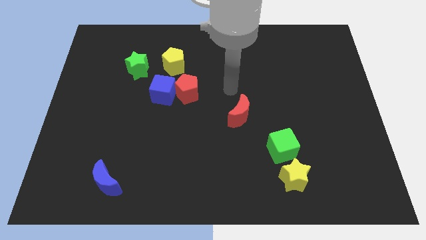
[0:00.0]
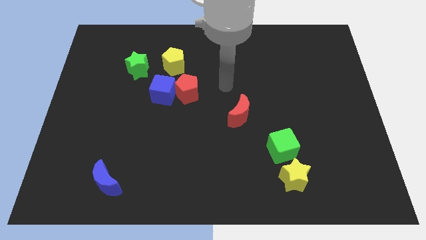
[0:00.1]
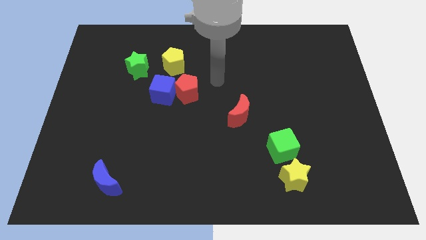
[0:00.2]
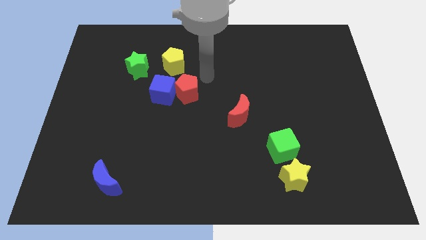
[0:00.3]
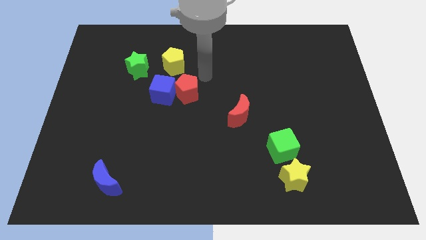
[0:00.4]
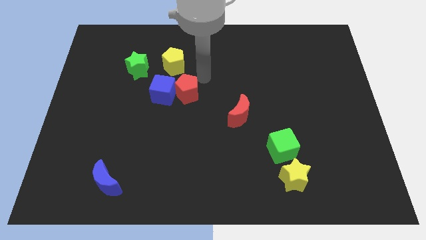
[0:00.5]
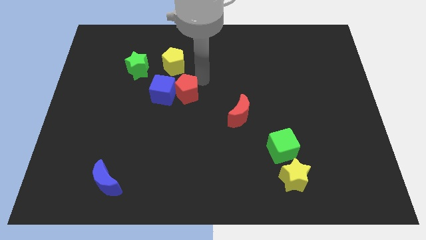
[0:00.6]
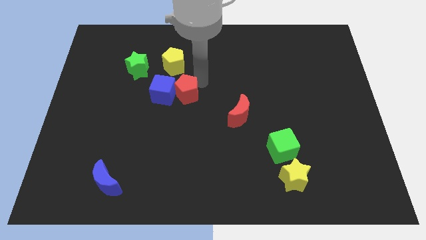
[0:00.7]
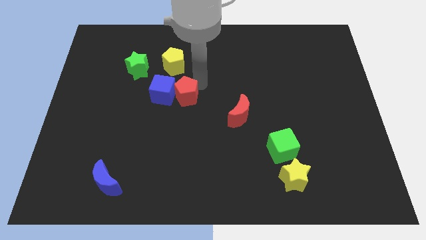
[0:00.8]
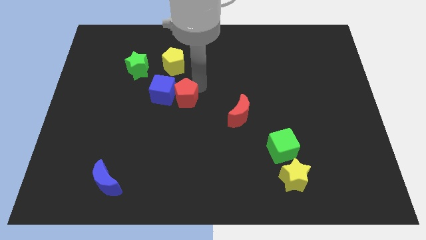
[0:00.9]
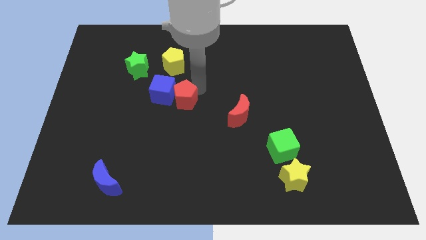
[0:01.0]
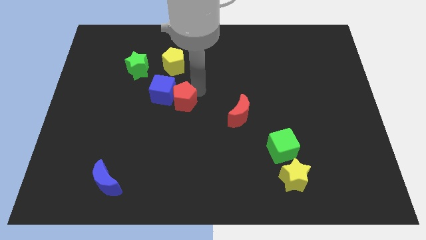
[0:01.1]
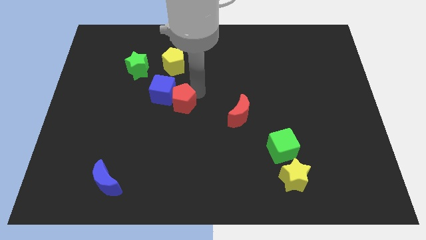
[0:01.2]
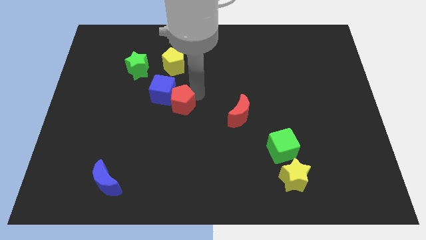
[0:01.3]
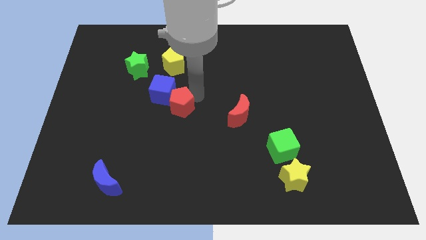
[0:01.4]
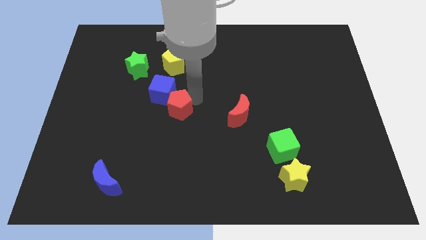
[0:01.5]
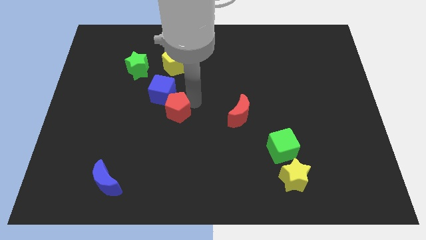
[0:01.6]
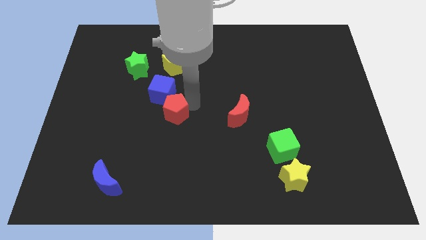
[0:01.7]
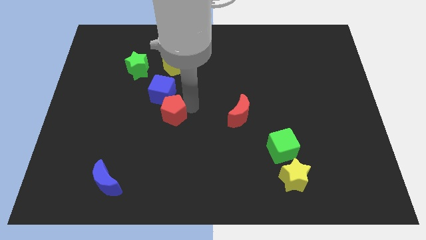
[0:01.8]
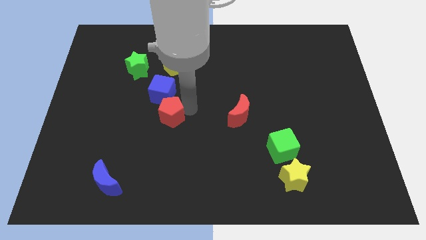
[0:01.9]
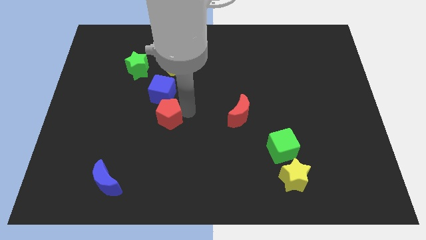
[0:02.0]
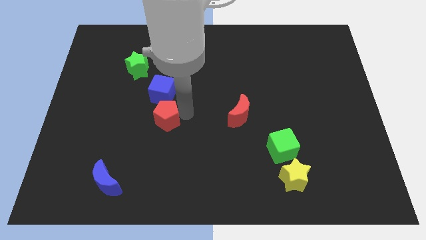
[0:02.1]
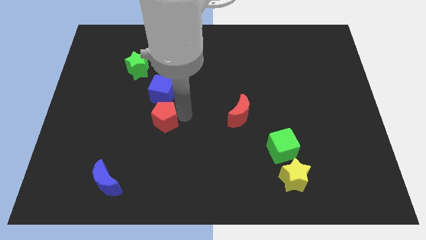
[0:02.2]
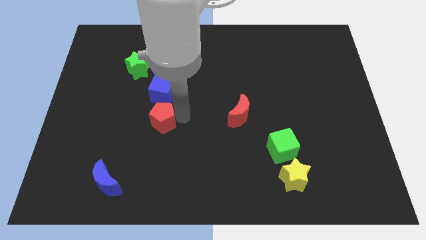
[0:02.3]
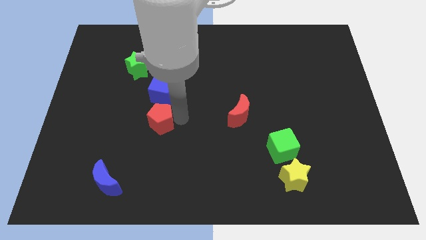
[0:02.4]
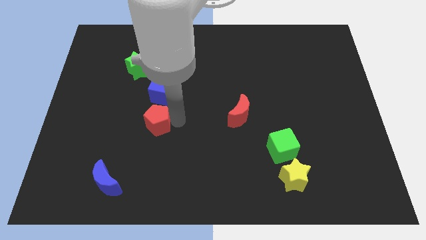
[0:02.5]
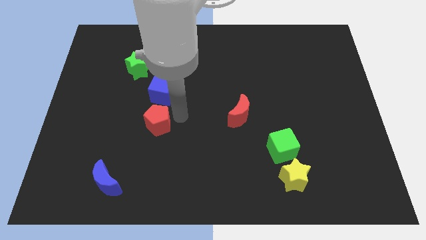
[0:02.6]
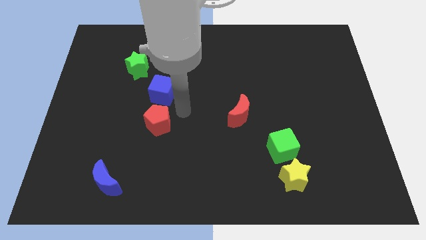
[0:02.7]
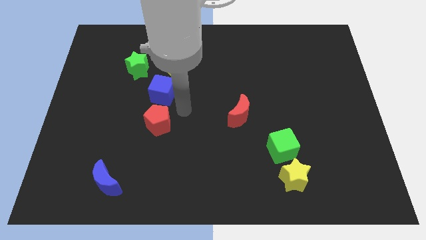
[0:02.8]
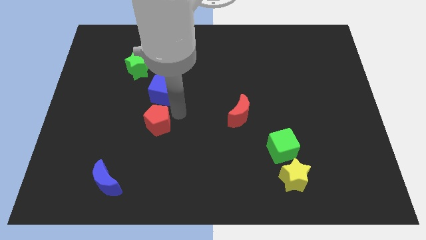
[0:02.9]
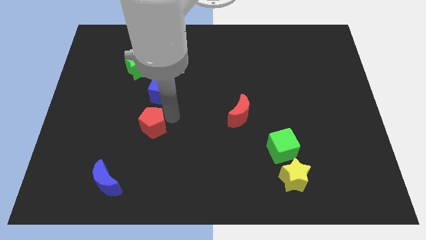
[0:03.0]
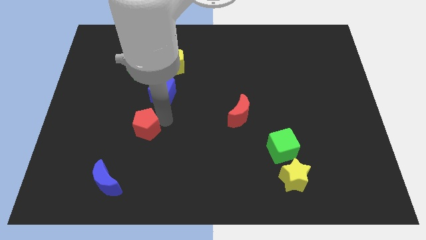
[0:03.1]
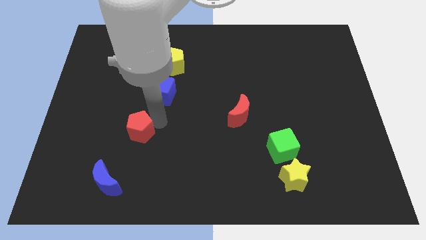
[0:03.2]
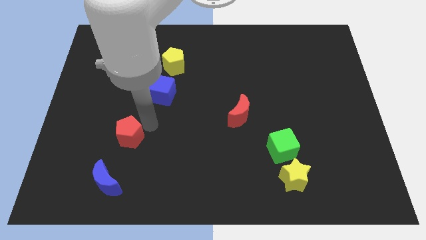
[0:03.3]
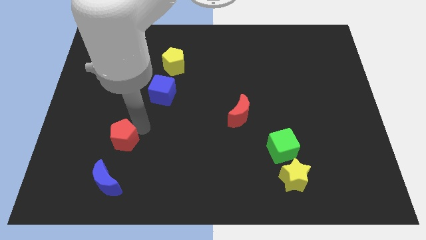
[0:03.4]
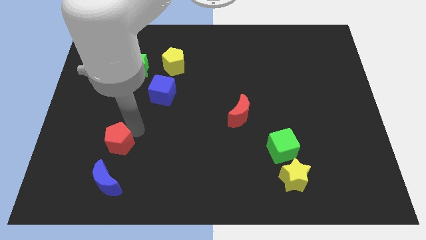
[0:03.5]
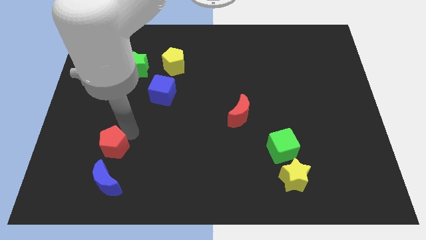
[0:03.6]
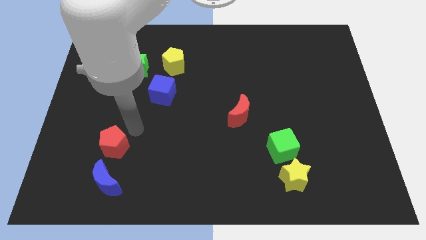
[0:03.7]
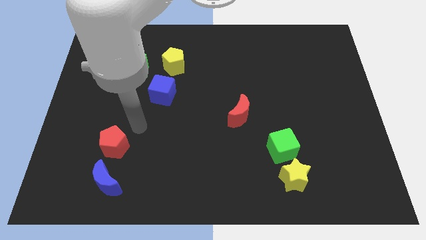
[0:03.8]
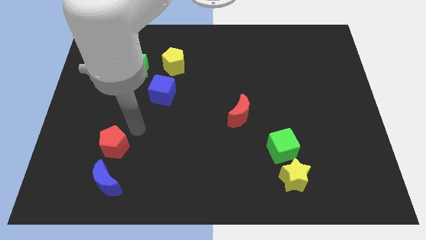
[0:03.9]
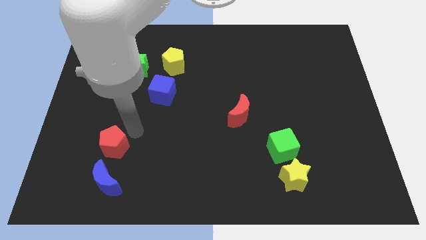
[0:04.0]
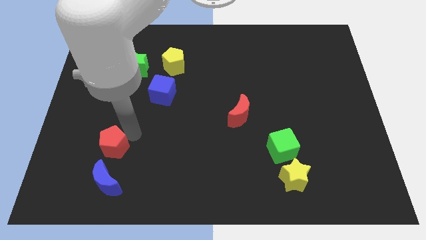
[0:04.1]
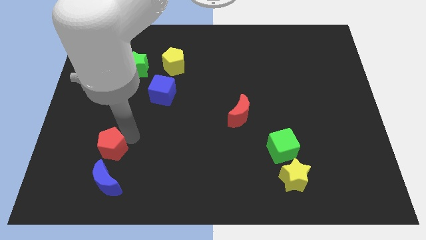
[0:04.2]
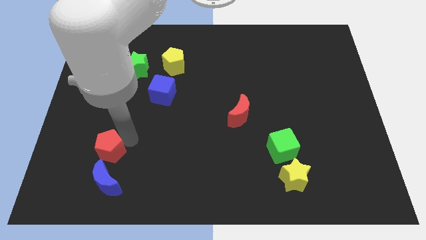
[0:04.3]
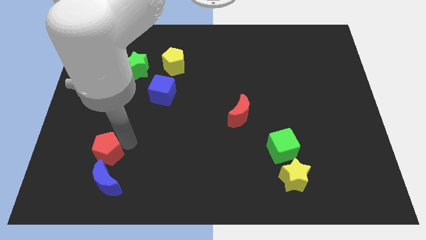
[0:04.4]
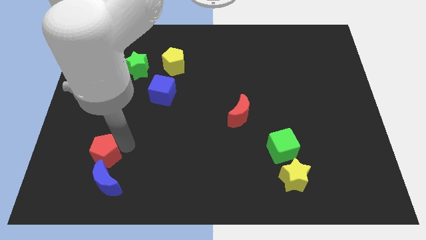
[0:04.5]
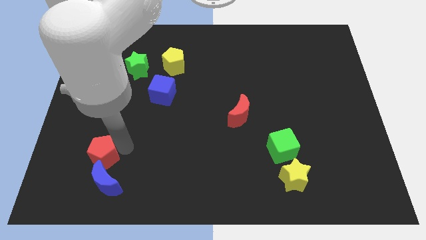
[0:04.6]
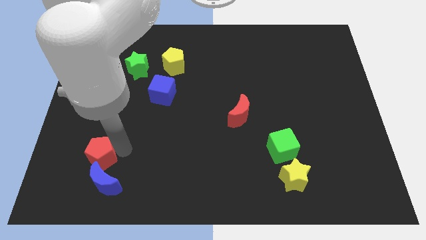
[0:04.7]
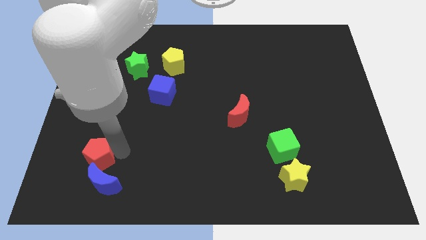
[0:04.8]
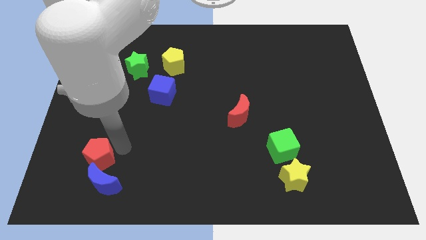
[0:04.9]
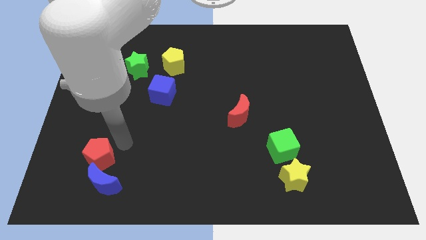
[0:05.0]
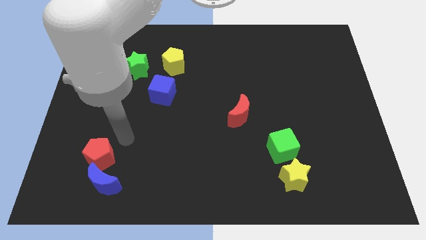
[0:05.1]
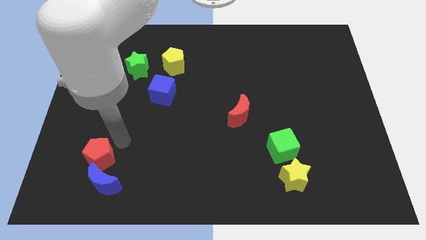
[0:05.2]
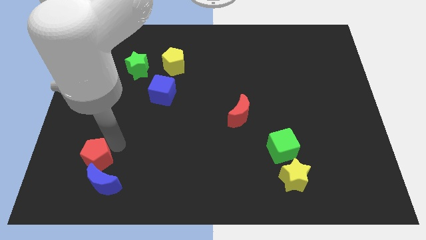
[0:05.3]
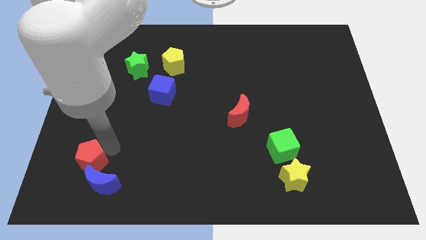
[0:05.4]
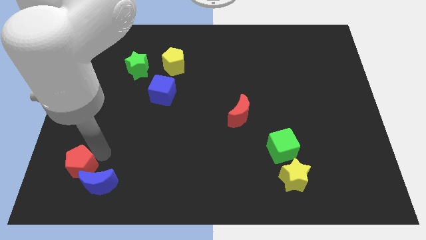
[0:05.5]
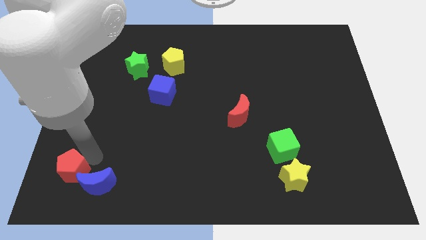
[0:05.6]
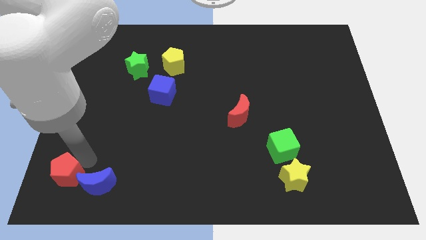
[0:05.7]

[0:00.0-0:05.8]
push the red pentagon to the bottom left corner

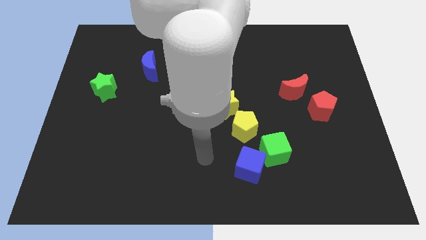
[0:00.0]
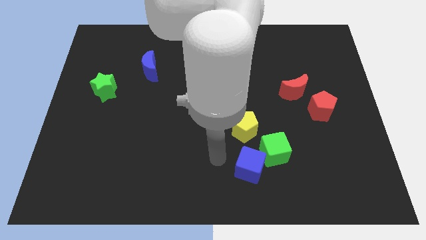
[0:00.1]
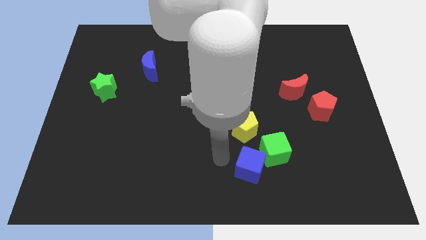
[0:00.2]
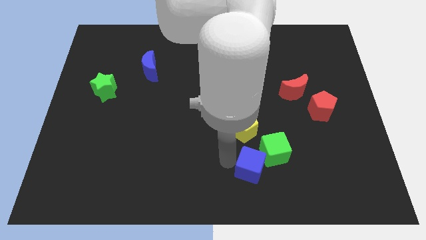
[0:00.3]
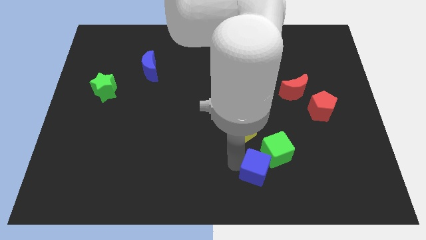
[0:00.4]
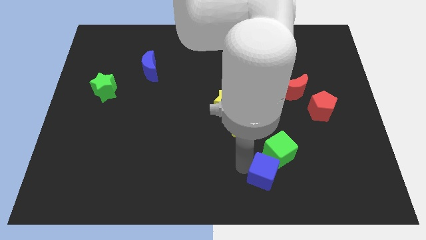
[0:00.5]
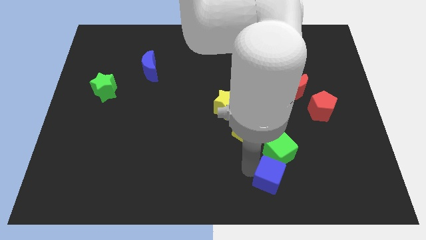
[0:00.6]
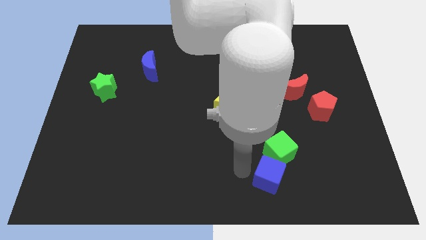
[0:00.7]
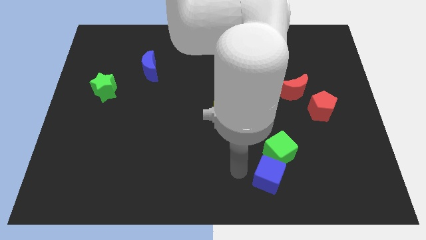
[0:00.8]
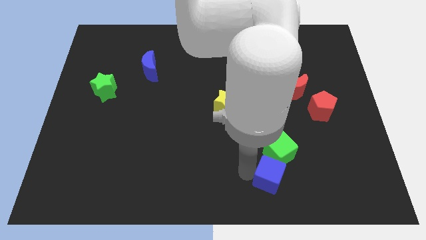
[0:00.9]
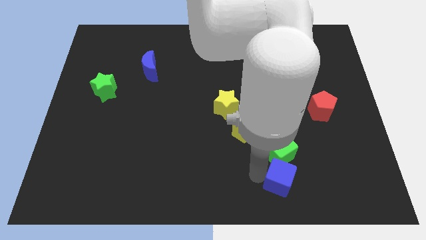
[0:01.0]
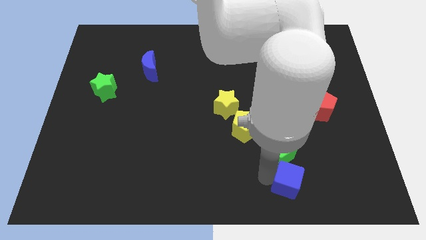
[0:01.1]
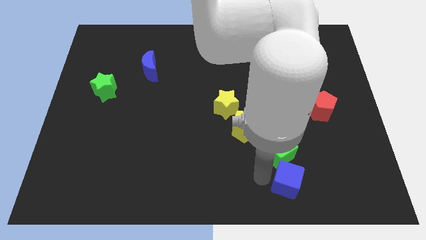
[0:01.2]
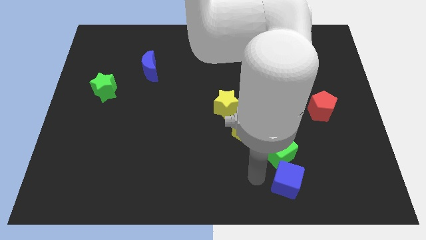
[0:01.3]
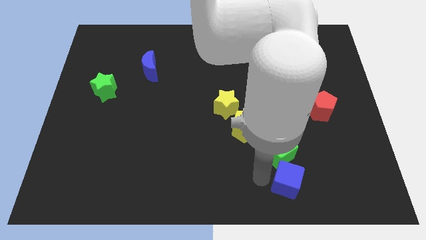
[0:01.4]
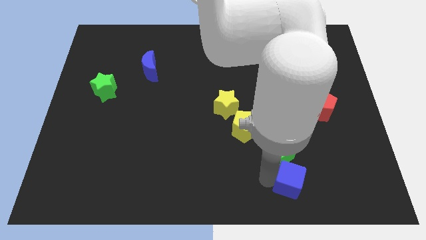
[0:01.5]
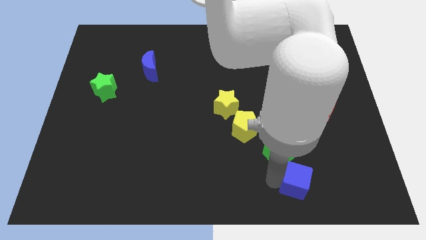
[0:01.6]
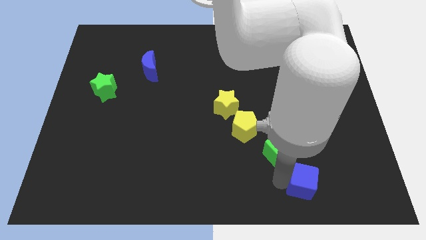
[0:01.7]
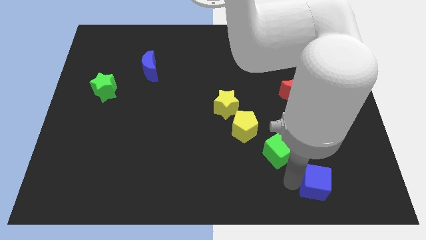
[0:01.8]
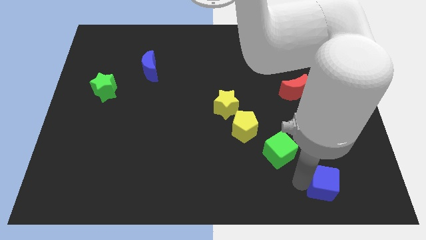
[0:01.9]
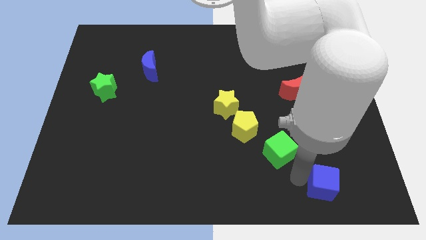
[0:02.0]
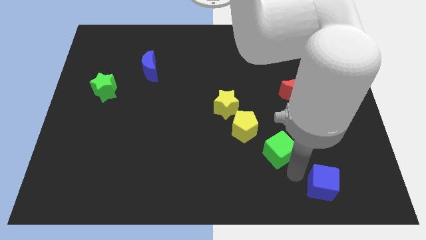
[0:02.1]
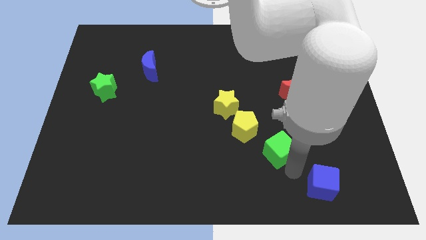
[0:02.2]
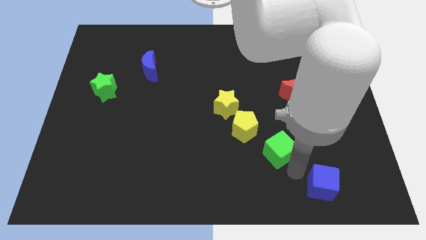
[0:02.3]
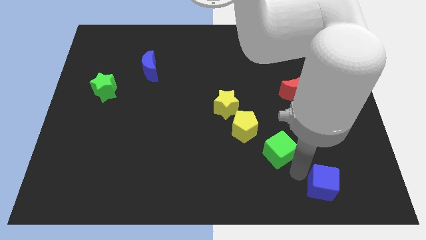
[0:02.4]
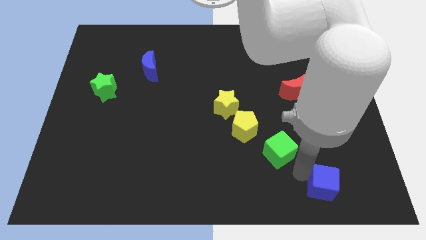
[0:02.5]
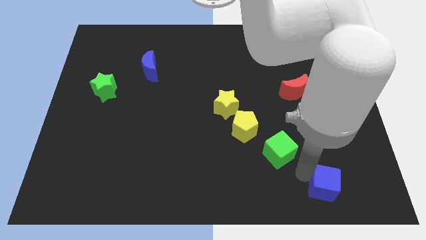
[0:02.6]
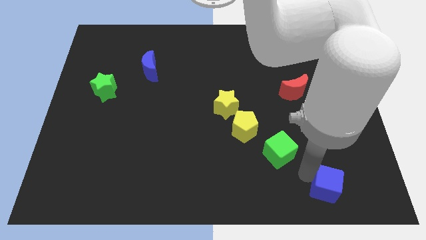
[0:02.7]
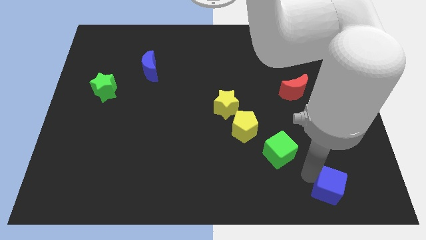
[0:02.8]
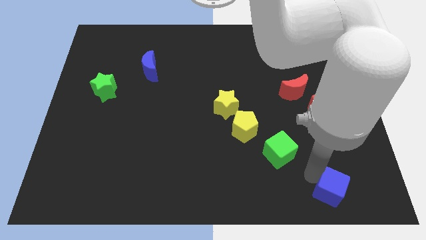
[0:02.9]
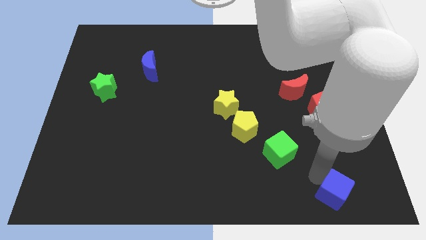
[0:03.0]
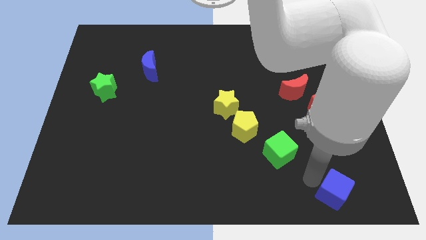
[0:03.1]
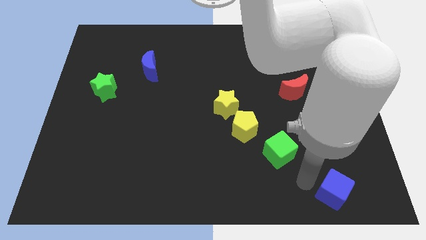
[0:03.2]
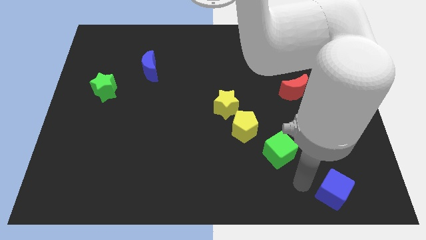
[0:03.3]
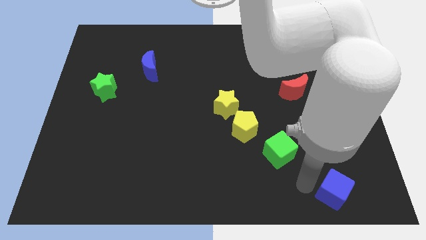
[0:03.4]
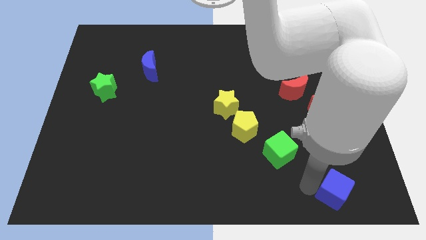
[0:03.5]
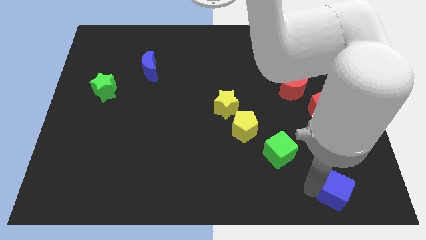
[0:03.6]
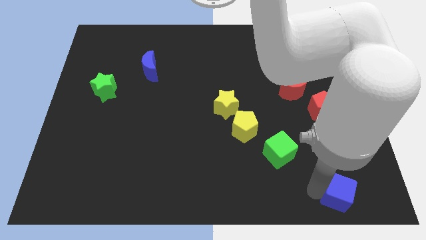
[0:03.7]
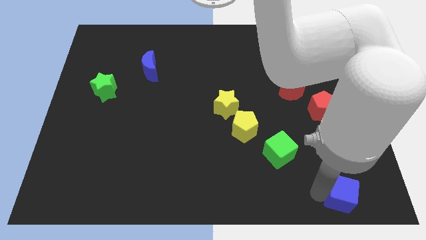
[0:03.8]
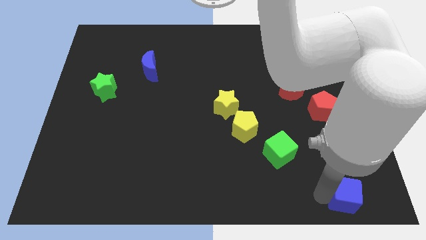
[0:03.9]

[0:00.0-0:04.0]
move the blue cube to the bottom right corner
